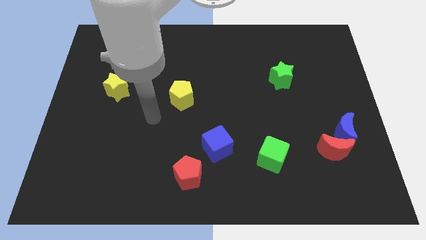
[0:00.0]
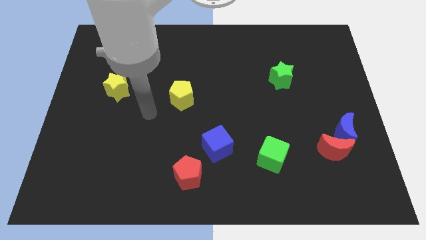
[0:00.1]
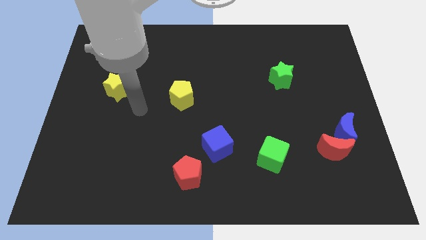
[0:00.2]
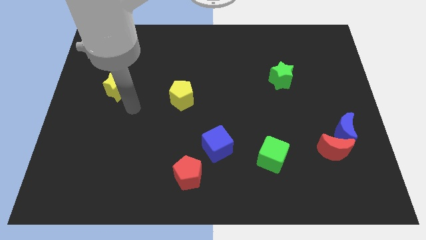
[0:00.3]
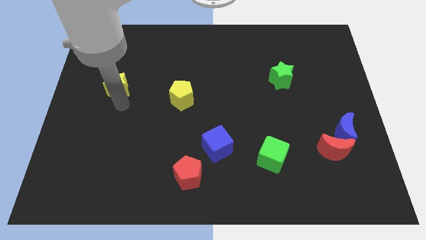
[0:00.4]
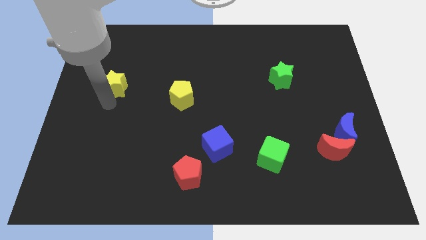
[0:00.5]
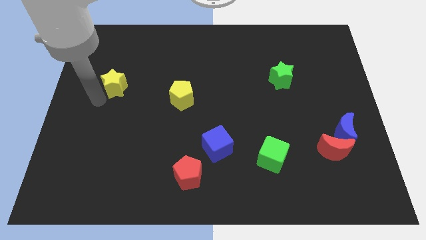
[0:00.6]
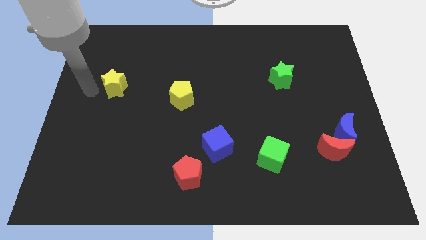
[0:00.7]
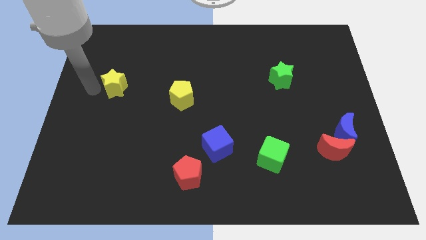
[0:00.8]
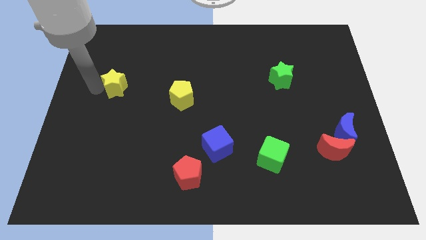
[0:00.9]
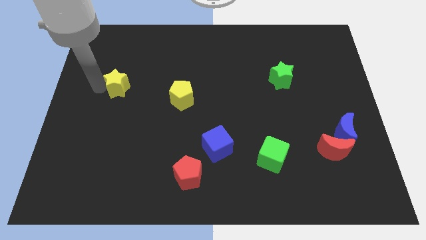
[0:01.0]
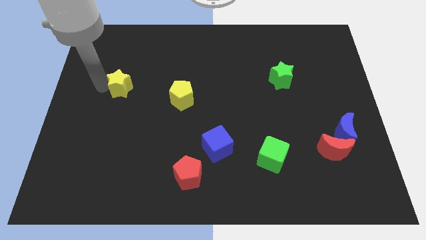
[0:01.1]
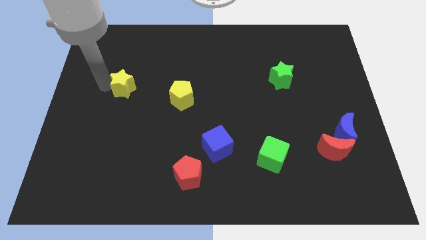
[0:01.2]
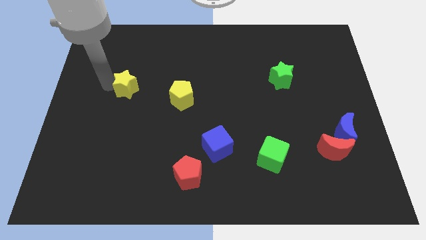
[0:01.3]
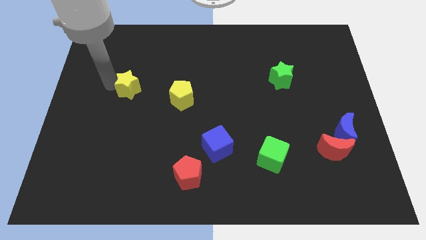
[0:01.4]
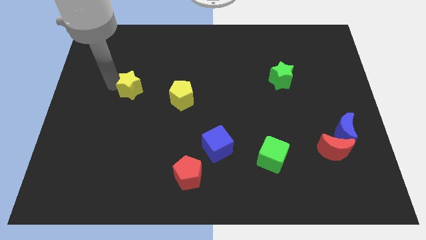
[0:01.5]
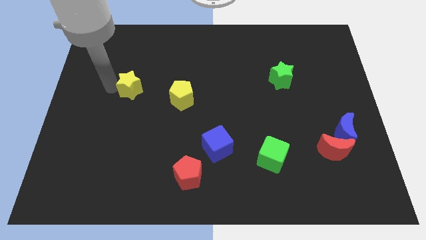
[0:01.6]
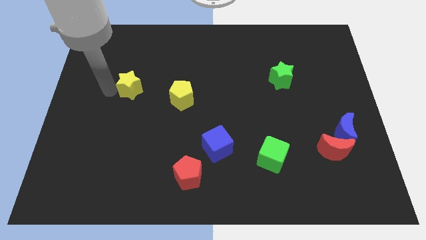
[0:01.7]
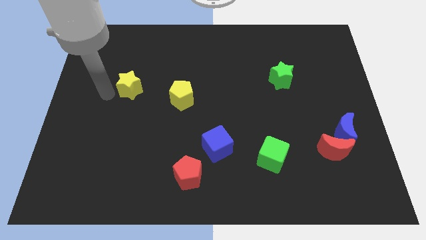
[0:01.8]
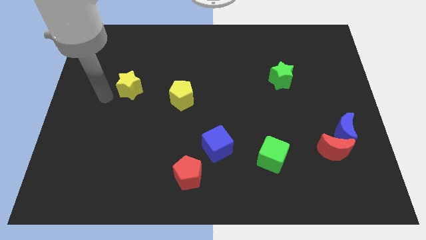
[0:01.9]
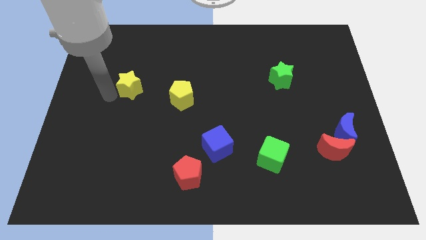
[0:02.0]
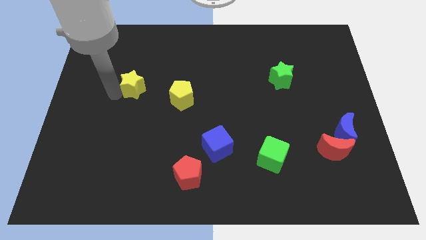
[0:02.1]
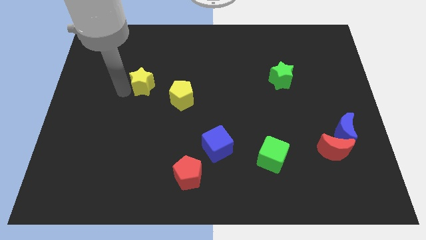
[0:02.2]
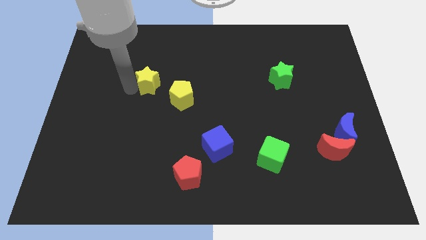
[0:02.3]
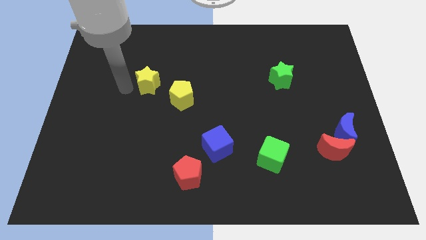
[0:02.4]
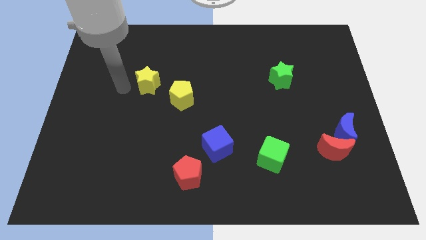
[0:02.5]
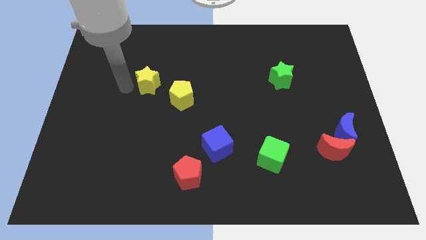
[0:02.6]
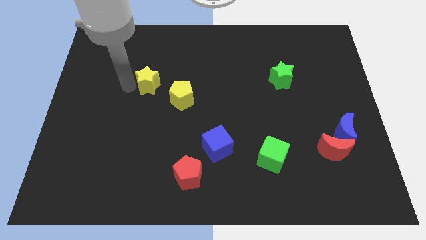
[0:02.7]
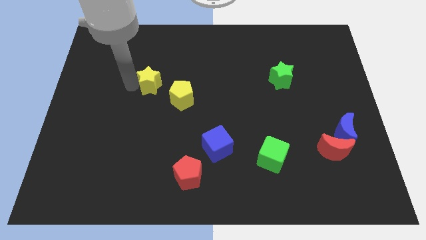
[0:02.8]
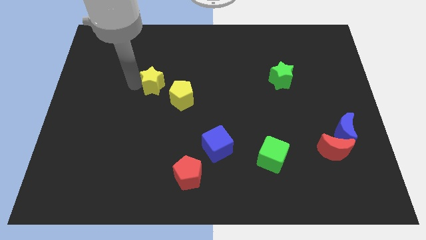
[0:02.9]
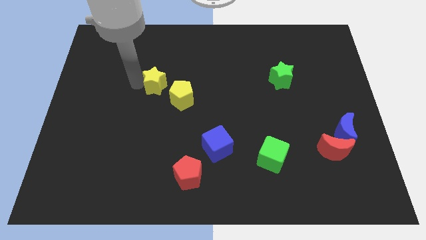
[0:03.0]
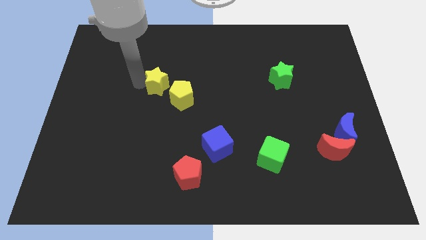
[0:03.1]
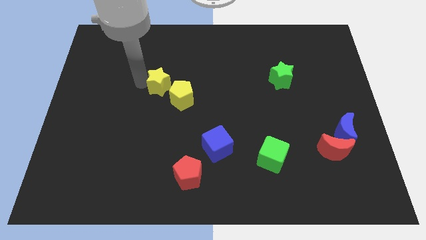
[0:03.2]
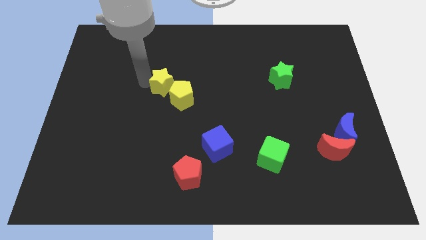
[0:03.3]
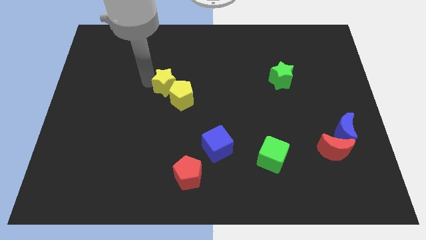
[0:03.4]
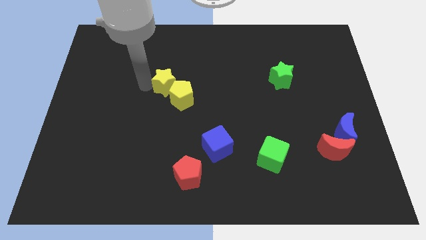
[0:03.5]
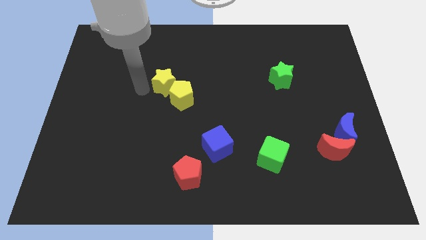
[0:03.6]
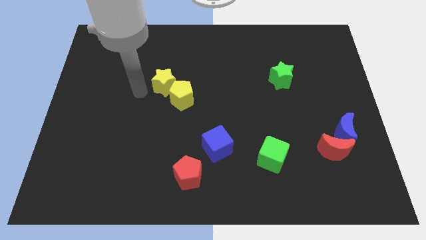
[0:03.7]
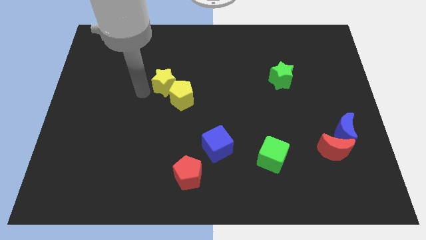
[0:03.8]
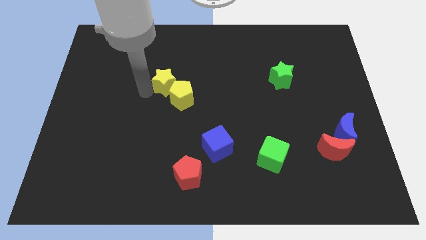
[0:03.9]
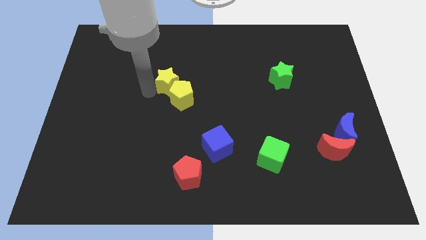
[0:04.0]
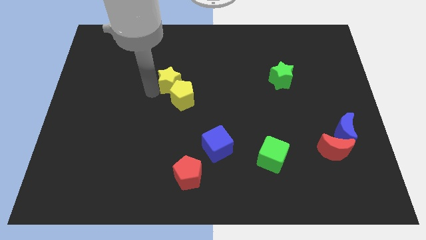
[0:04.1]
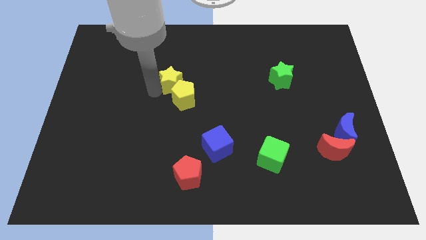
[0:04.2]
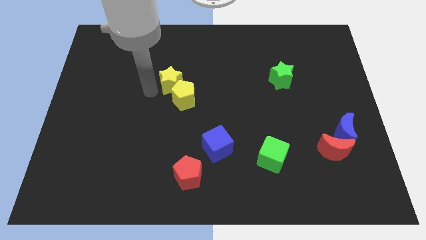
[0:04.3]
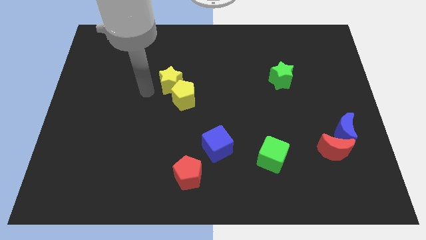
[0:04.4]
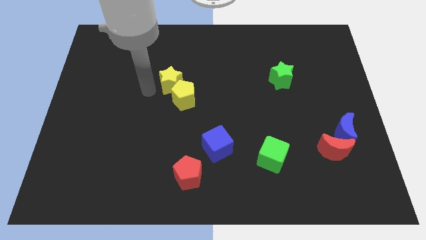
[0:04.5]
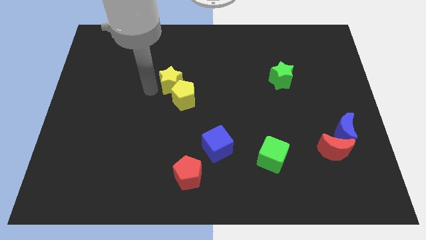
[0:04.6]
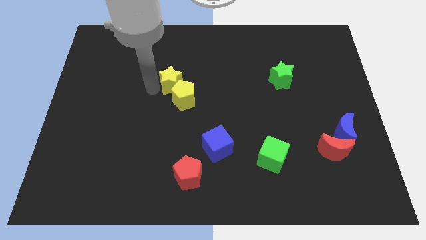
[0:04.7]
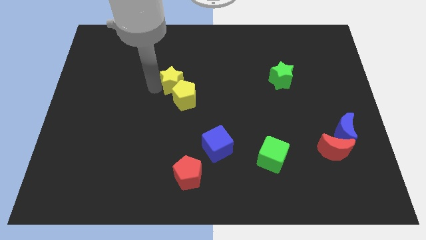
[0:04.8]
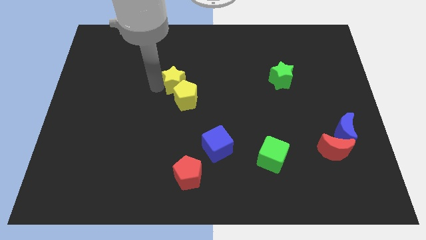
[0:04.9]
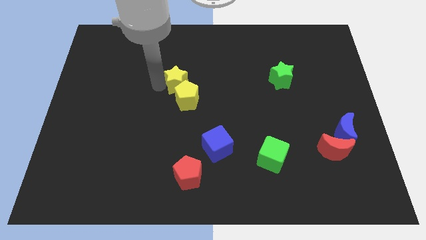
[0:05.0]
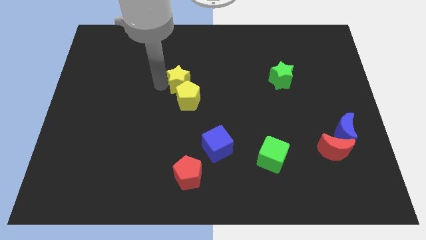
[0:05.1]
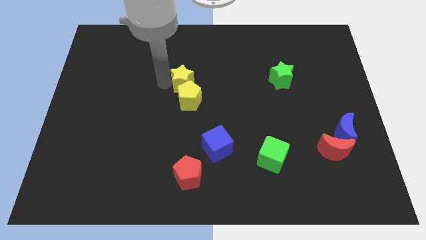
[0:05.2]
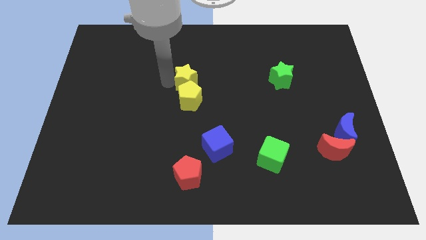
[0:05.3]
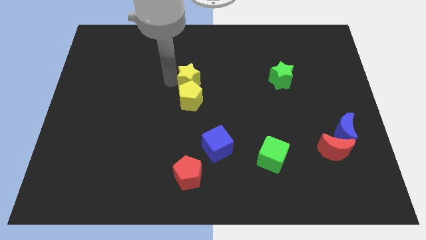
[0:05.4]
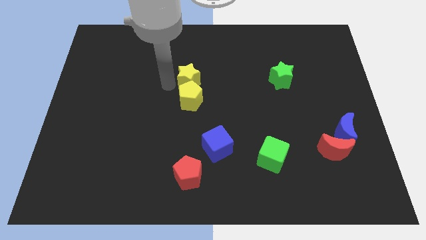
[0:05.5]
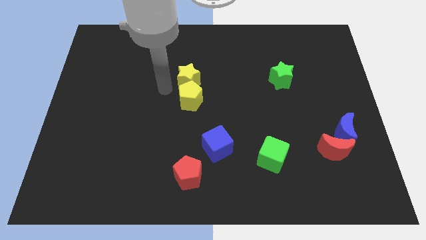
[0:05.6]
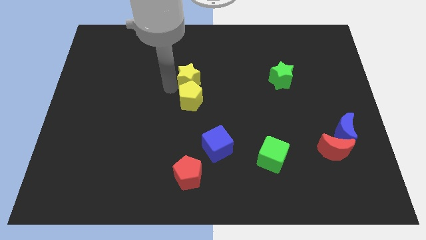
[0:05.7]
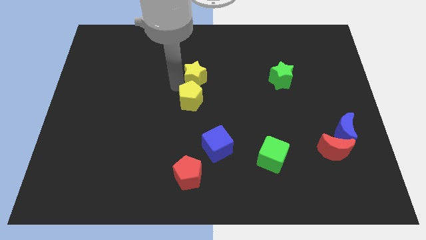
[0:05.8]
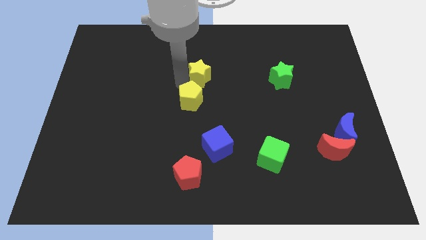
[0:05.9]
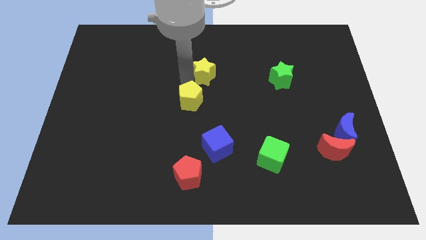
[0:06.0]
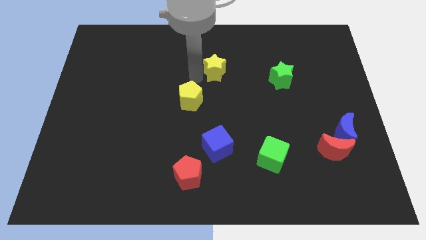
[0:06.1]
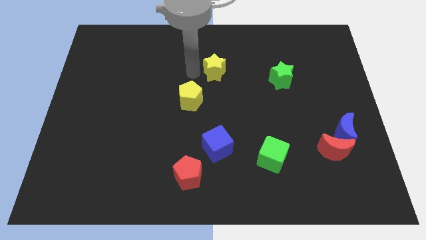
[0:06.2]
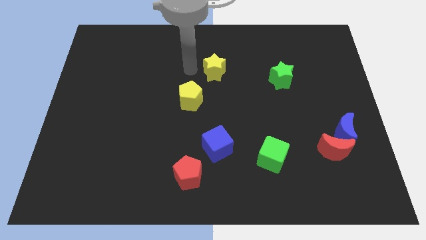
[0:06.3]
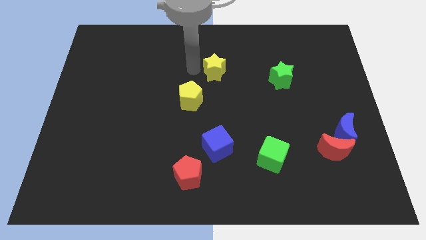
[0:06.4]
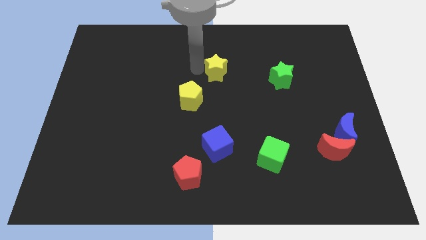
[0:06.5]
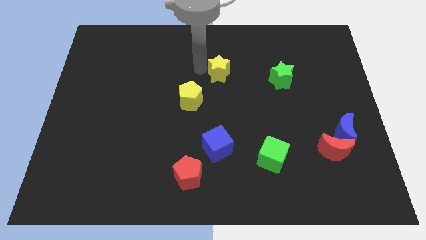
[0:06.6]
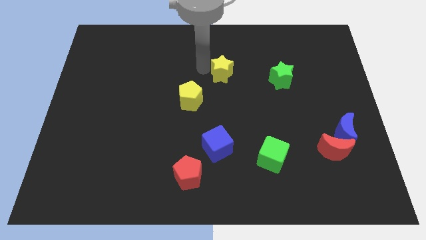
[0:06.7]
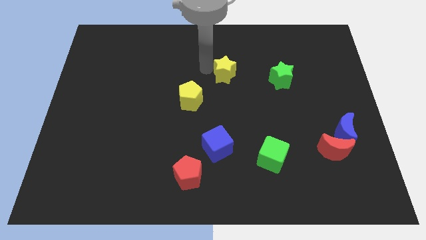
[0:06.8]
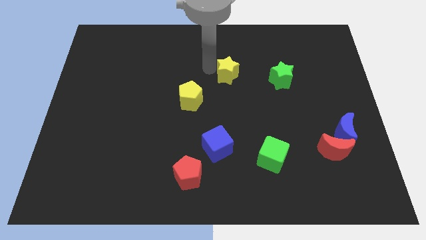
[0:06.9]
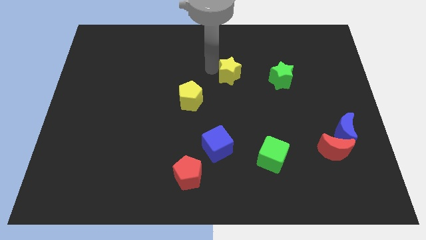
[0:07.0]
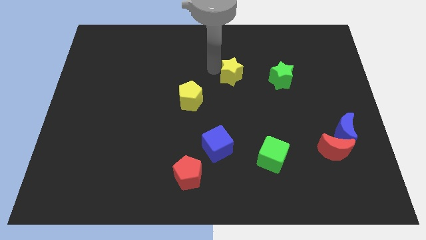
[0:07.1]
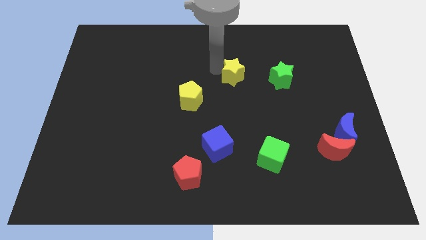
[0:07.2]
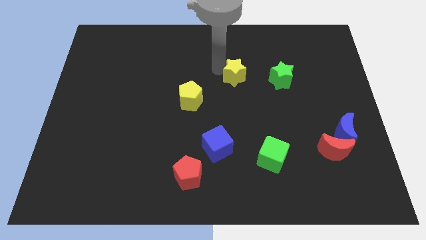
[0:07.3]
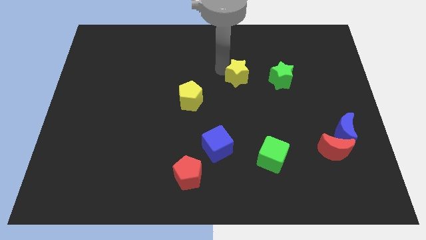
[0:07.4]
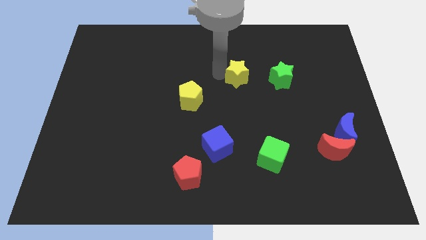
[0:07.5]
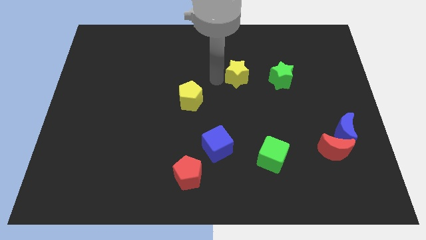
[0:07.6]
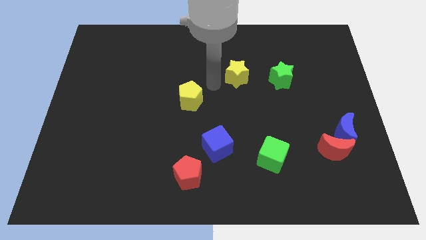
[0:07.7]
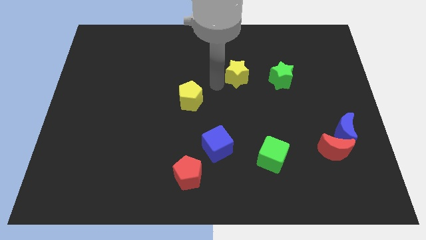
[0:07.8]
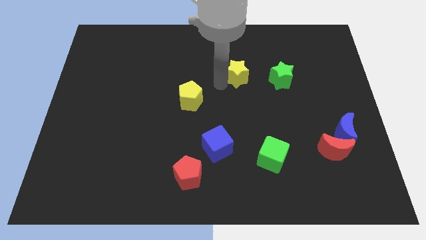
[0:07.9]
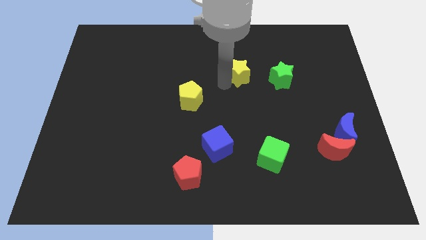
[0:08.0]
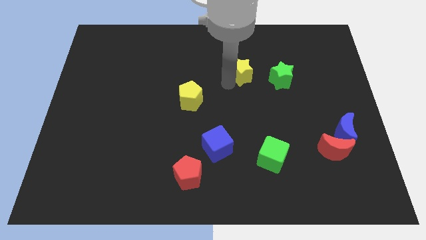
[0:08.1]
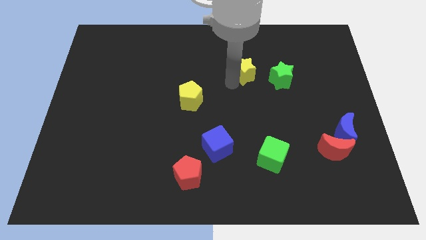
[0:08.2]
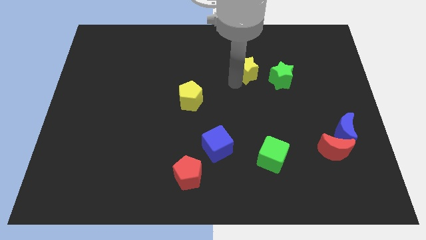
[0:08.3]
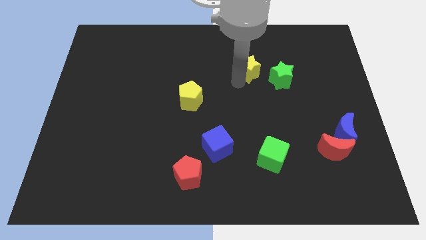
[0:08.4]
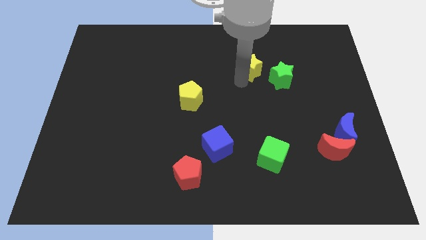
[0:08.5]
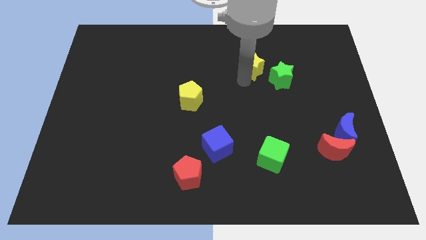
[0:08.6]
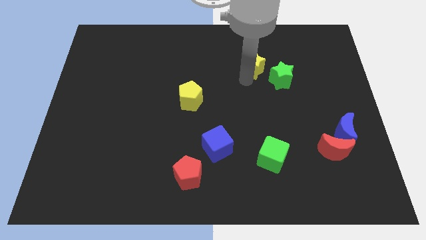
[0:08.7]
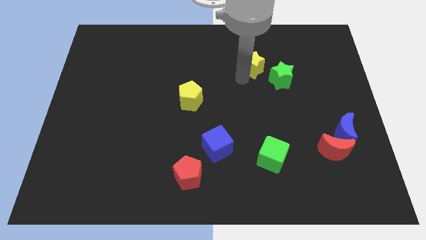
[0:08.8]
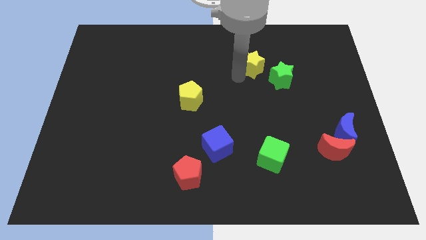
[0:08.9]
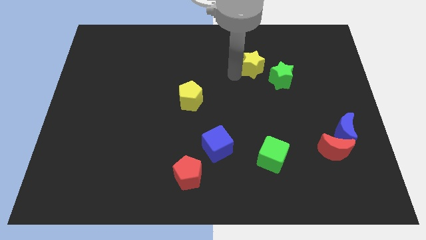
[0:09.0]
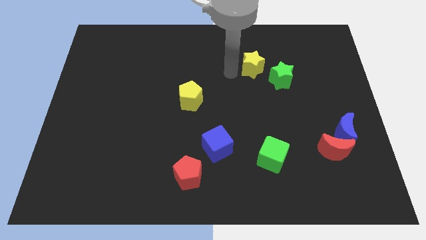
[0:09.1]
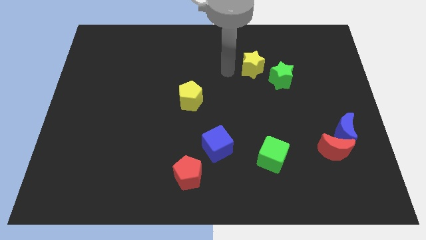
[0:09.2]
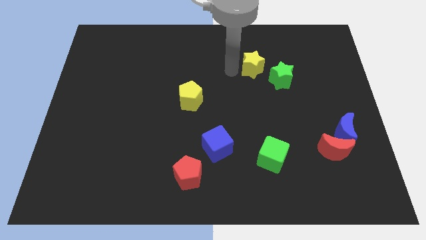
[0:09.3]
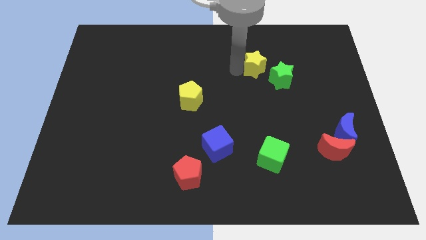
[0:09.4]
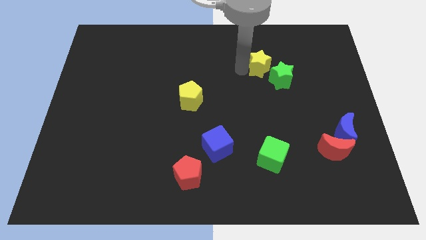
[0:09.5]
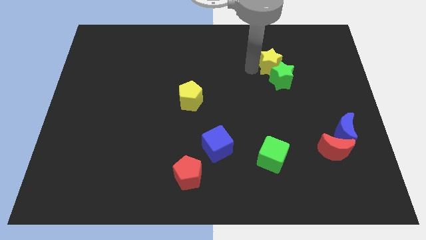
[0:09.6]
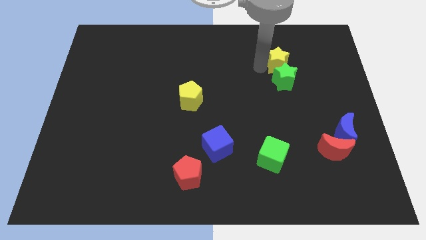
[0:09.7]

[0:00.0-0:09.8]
push the yellow star to the top right side of the green star
